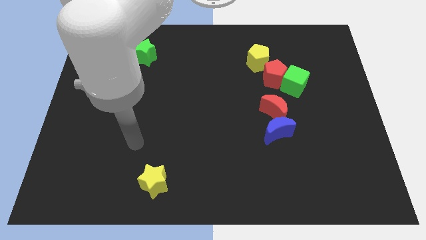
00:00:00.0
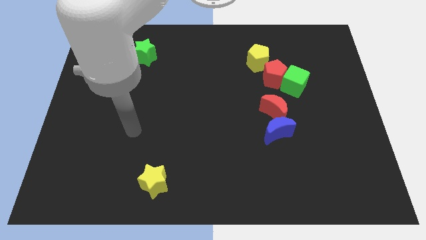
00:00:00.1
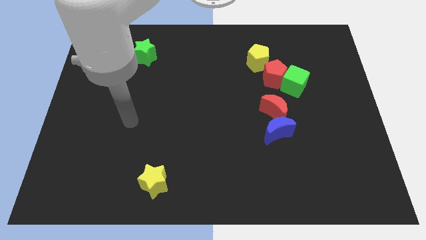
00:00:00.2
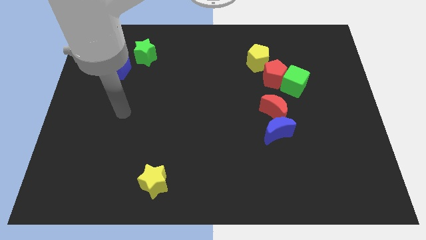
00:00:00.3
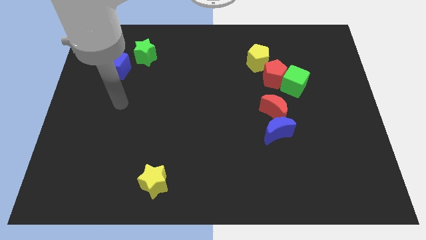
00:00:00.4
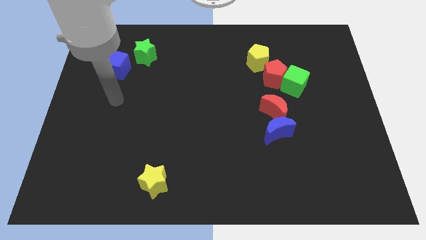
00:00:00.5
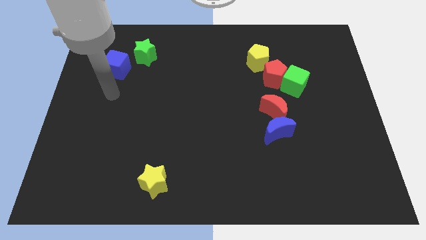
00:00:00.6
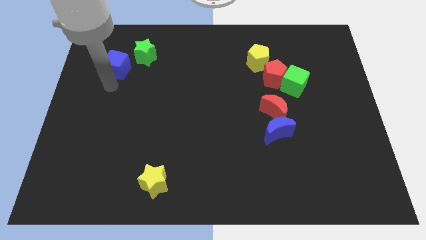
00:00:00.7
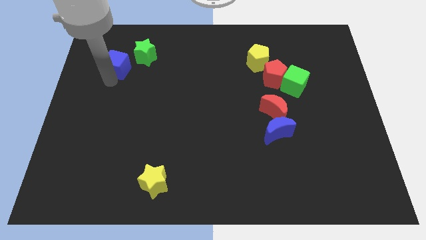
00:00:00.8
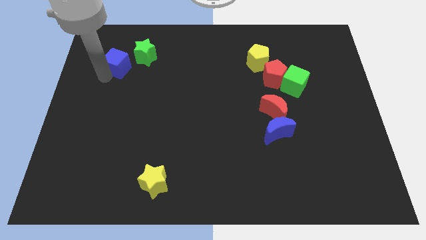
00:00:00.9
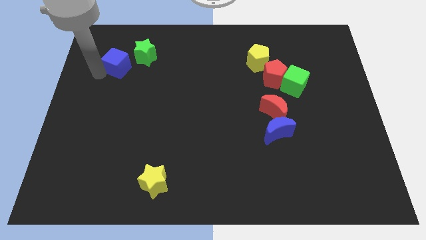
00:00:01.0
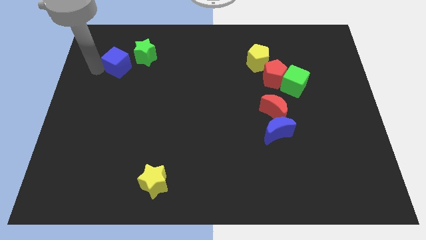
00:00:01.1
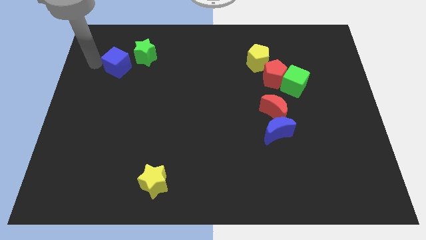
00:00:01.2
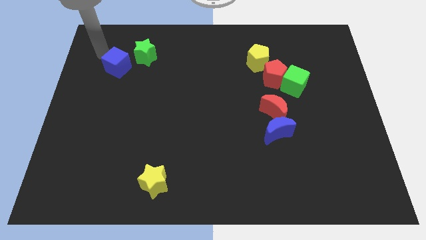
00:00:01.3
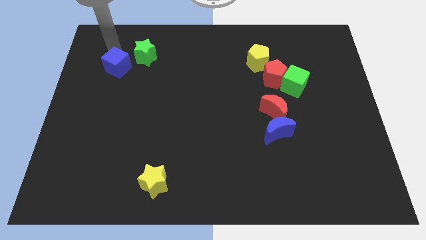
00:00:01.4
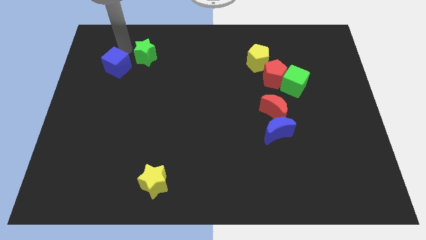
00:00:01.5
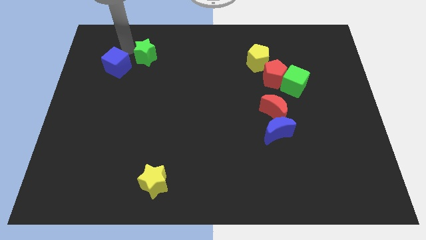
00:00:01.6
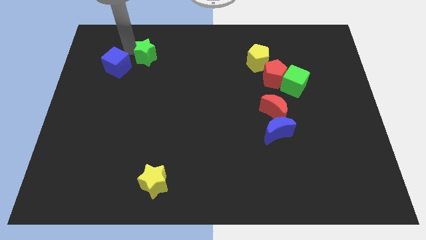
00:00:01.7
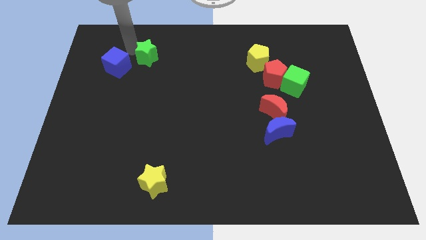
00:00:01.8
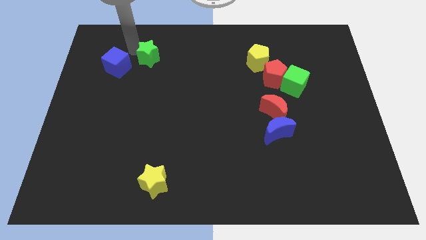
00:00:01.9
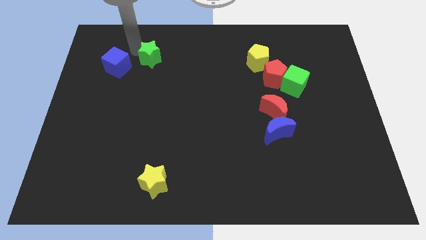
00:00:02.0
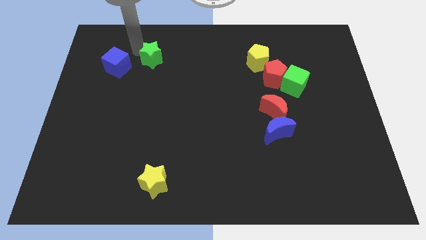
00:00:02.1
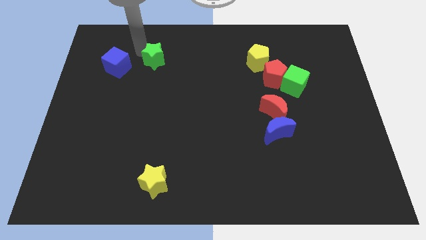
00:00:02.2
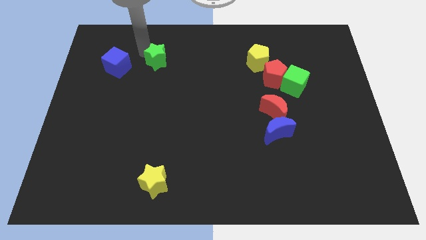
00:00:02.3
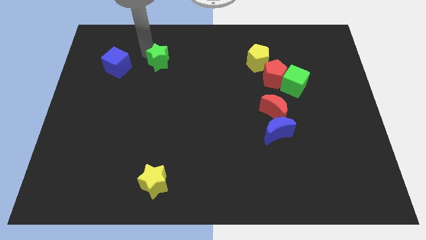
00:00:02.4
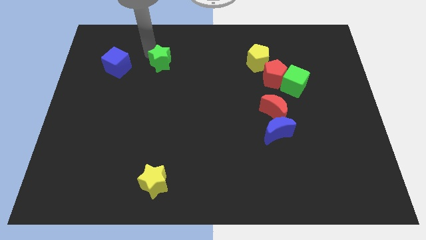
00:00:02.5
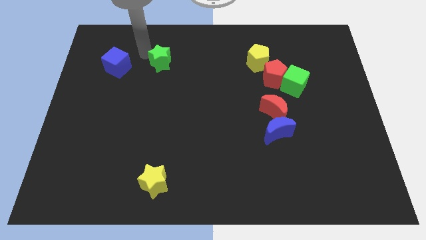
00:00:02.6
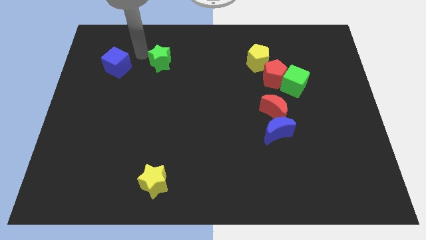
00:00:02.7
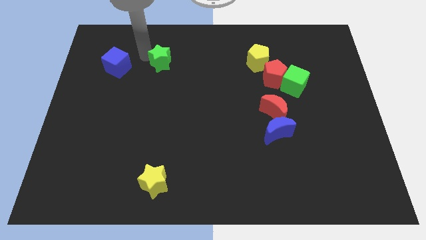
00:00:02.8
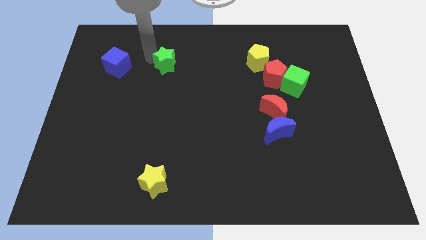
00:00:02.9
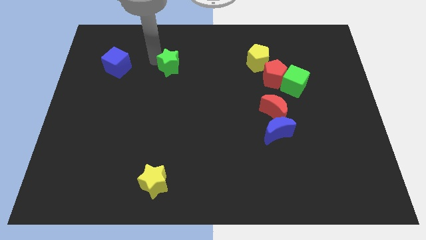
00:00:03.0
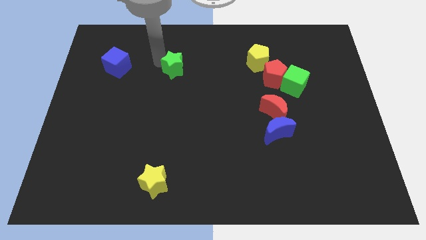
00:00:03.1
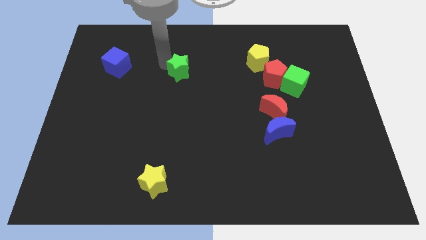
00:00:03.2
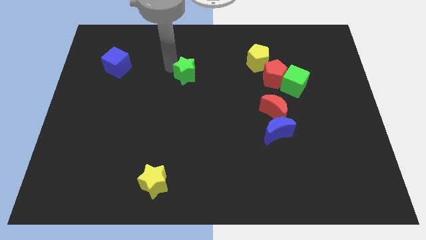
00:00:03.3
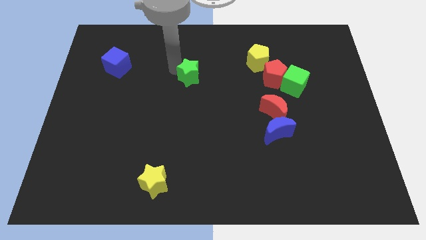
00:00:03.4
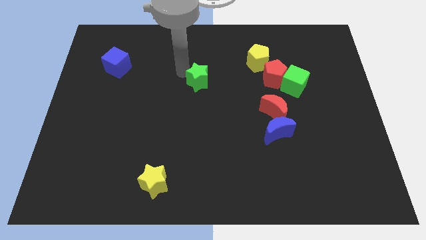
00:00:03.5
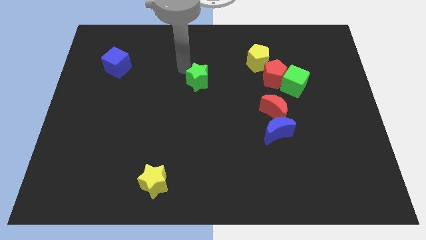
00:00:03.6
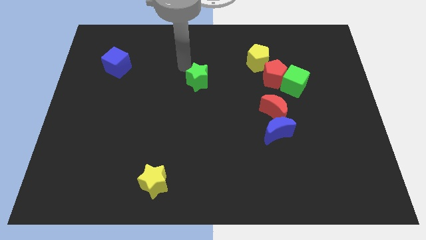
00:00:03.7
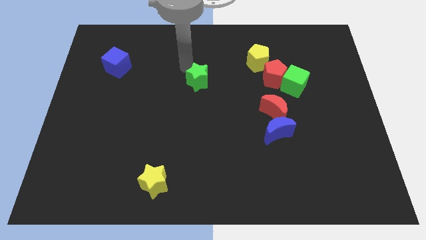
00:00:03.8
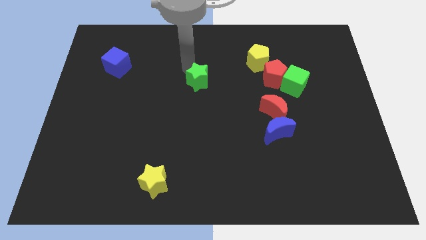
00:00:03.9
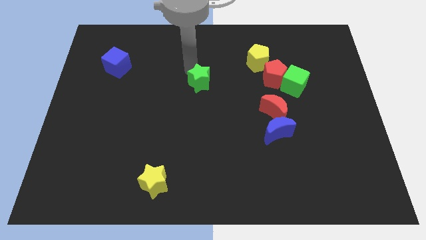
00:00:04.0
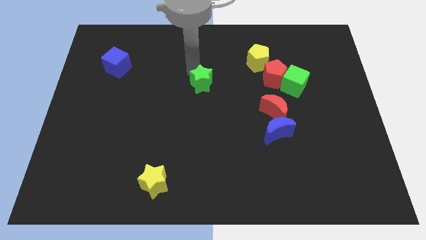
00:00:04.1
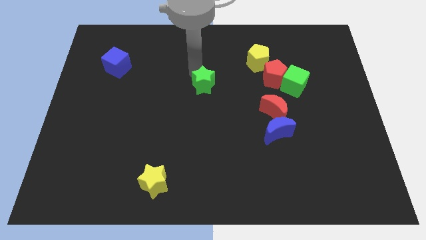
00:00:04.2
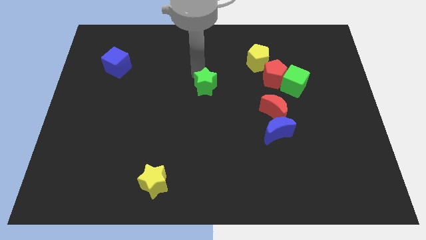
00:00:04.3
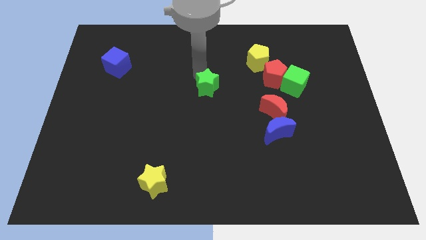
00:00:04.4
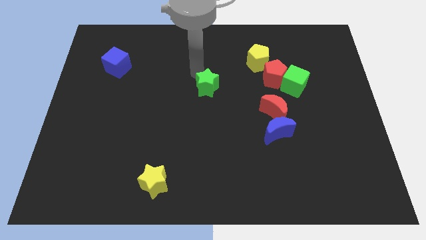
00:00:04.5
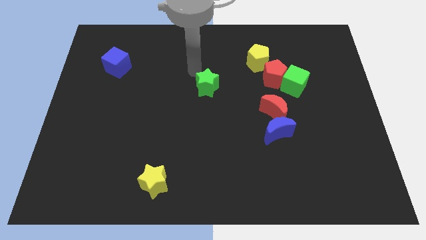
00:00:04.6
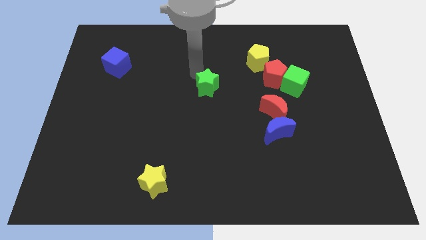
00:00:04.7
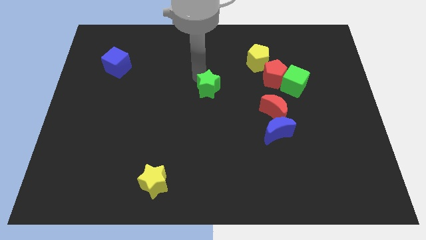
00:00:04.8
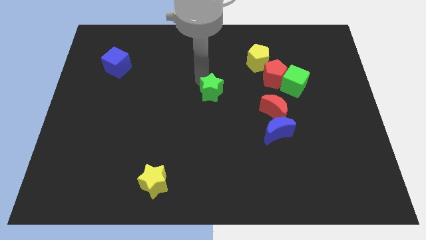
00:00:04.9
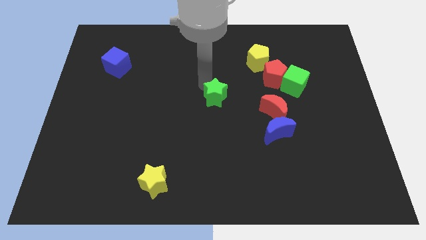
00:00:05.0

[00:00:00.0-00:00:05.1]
push the green star just left of the red moon

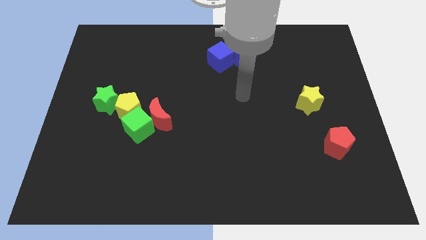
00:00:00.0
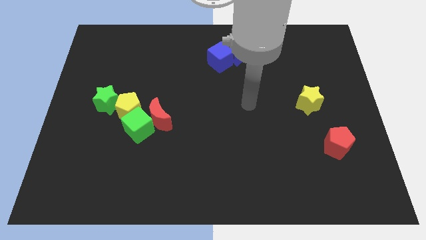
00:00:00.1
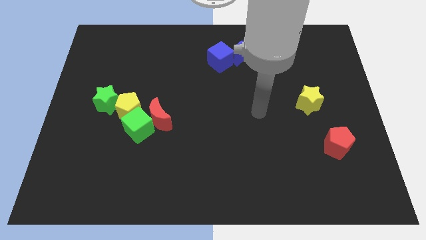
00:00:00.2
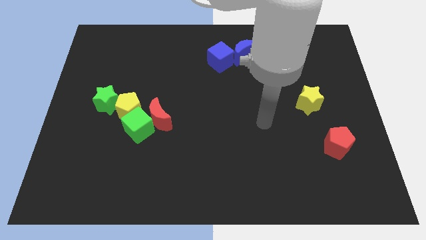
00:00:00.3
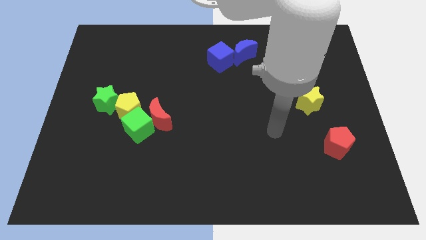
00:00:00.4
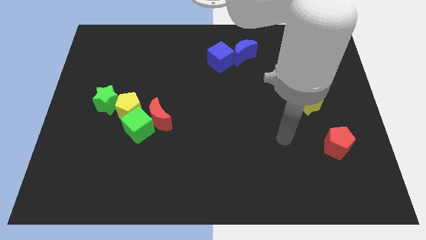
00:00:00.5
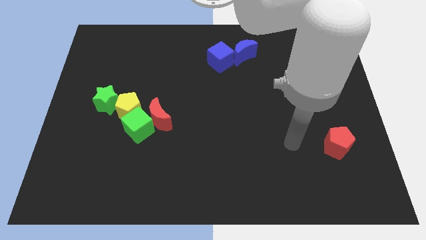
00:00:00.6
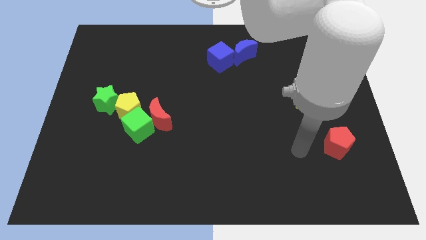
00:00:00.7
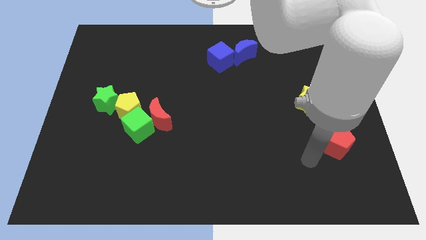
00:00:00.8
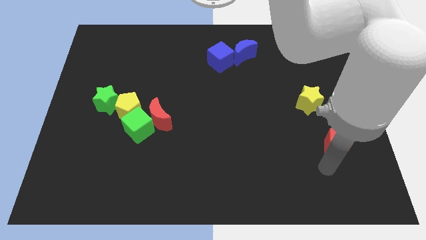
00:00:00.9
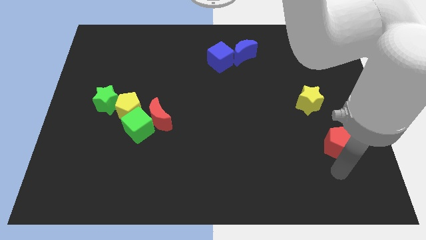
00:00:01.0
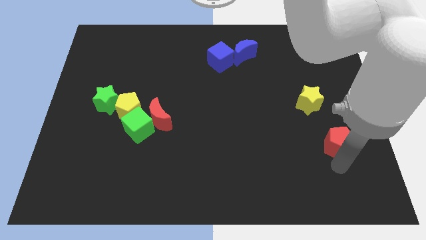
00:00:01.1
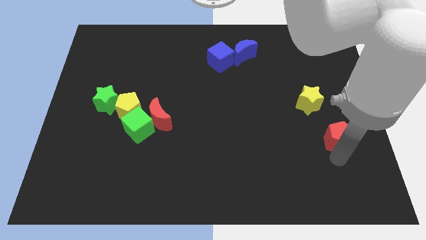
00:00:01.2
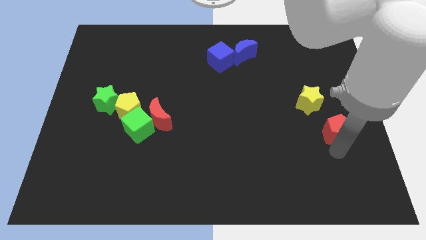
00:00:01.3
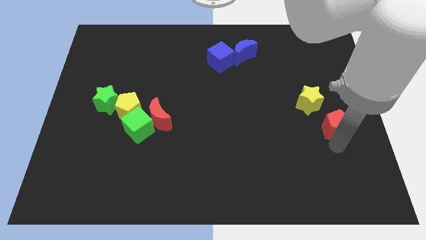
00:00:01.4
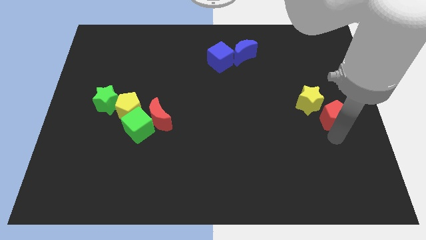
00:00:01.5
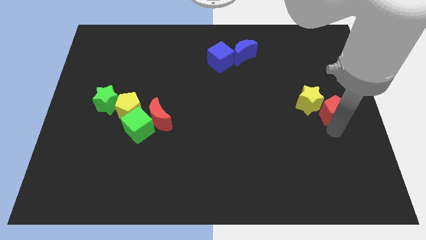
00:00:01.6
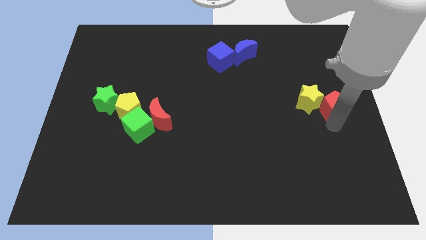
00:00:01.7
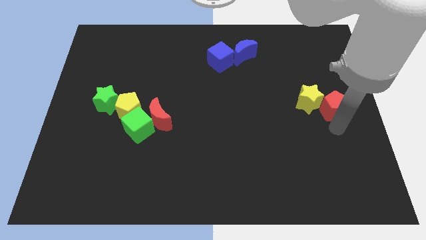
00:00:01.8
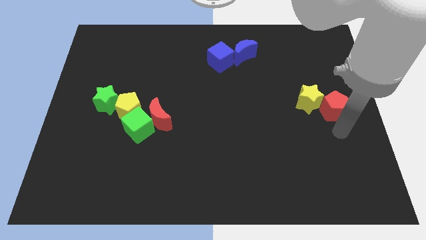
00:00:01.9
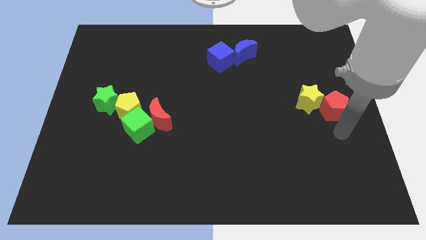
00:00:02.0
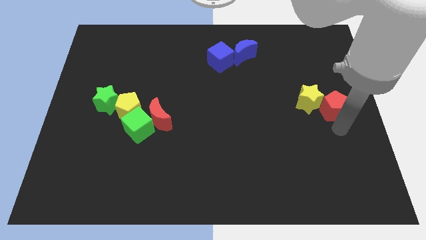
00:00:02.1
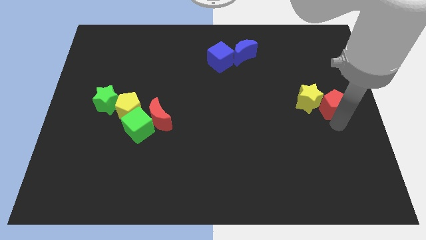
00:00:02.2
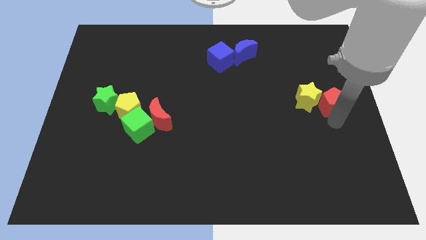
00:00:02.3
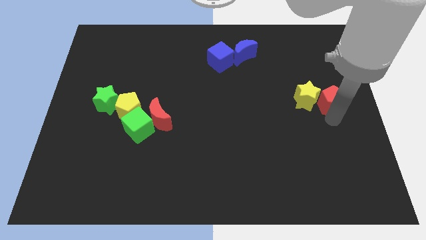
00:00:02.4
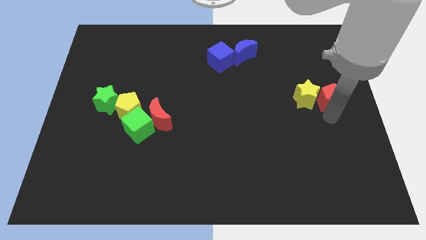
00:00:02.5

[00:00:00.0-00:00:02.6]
put the red pentagon to the top right side of the yellow star
